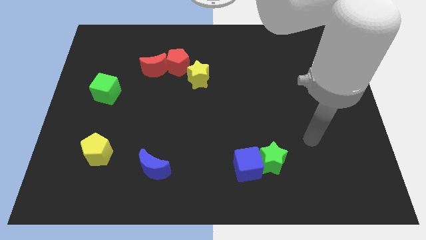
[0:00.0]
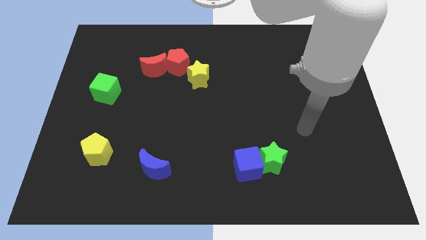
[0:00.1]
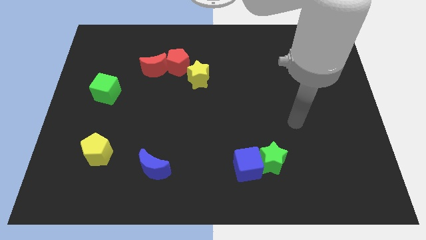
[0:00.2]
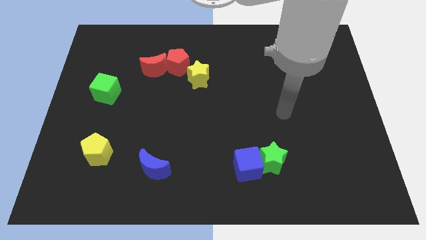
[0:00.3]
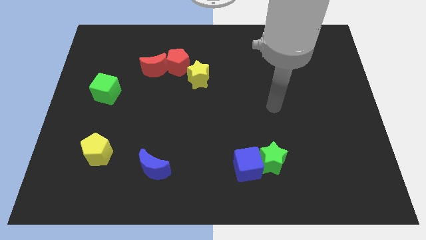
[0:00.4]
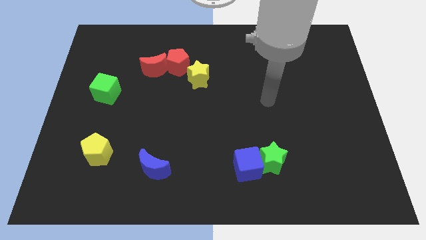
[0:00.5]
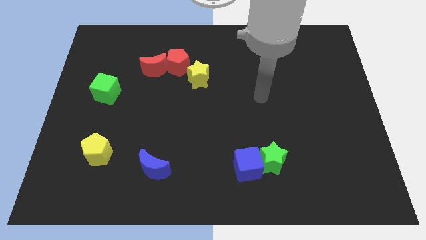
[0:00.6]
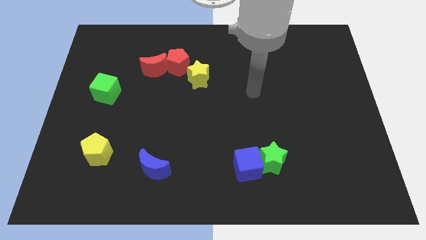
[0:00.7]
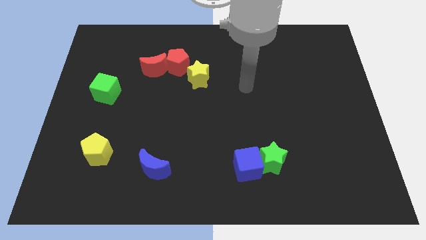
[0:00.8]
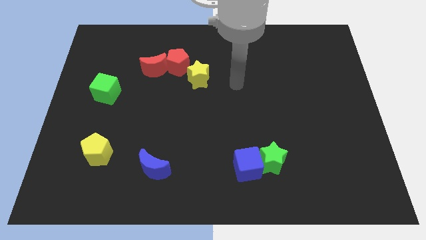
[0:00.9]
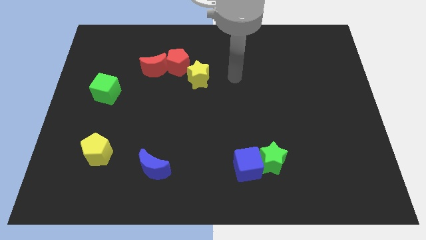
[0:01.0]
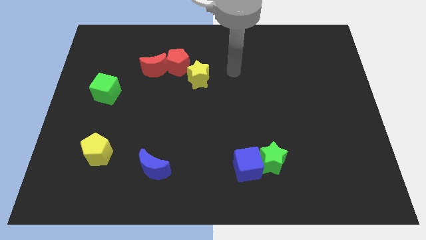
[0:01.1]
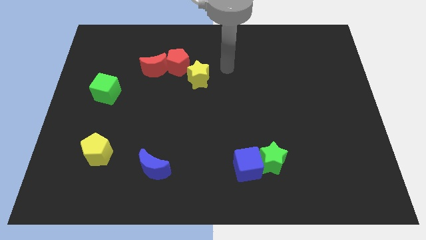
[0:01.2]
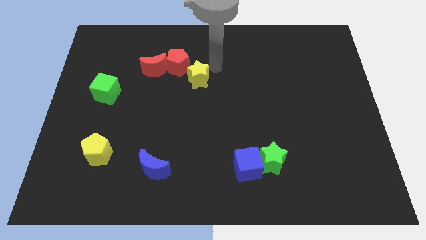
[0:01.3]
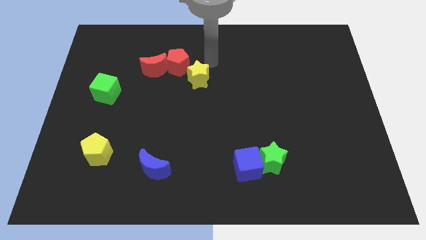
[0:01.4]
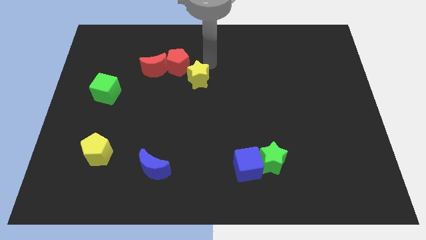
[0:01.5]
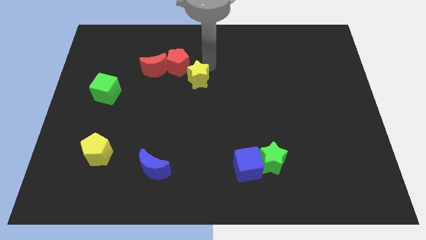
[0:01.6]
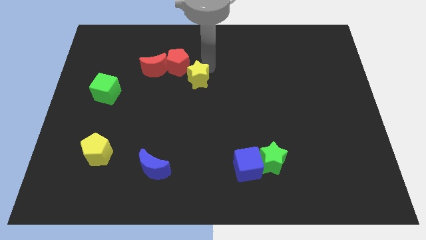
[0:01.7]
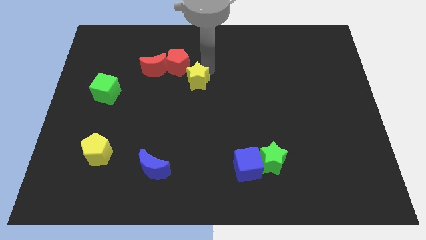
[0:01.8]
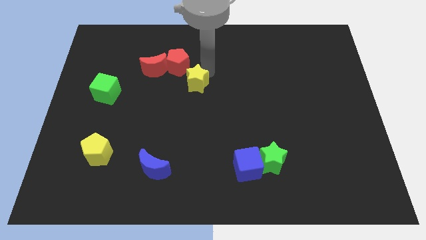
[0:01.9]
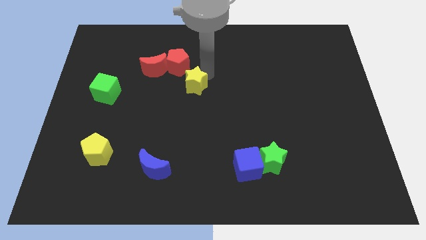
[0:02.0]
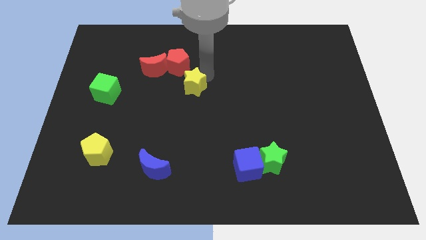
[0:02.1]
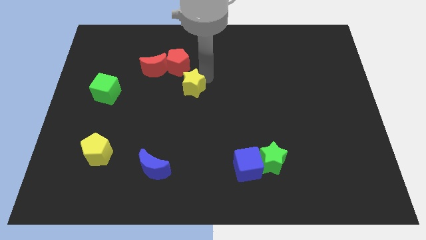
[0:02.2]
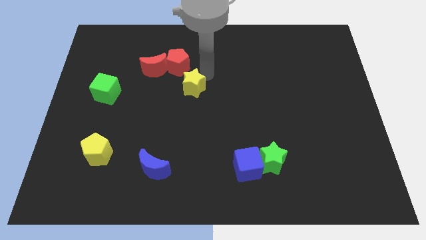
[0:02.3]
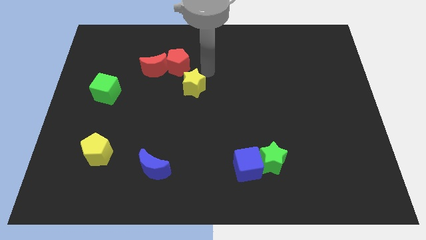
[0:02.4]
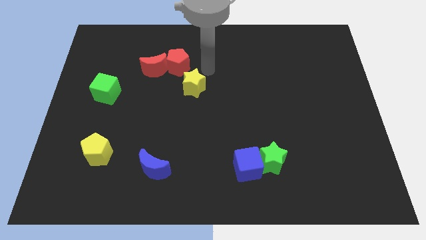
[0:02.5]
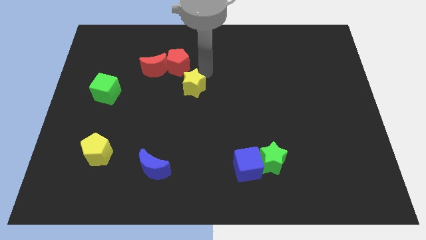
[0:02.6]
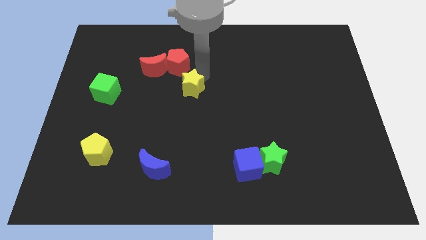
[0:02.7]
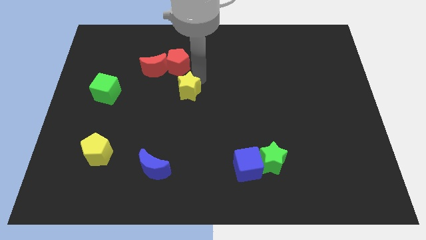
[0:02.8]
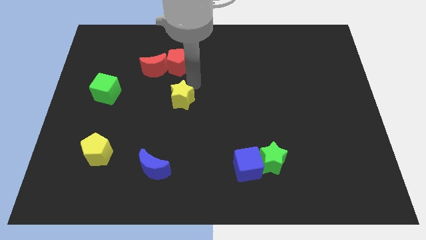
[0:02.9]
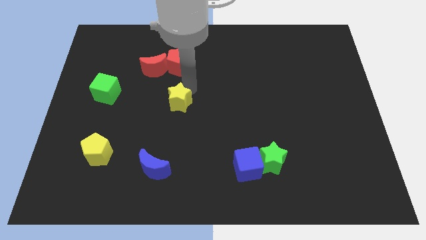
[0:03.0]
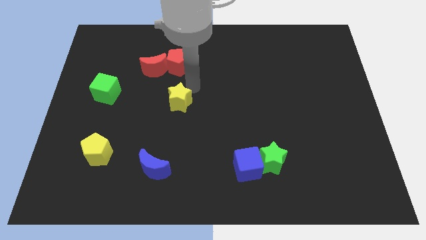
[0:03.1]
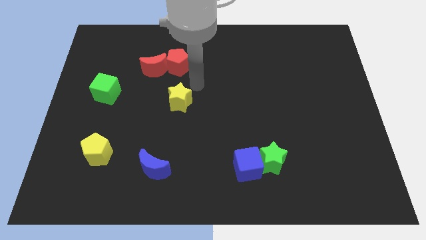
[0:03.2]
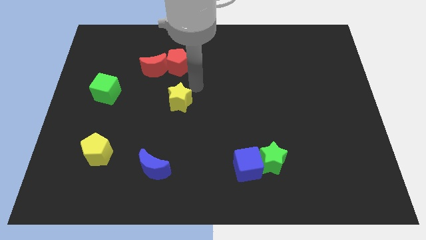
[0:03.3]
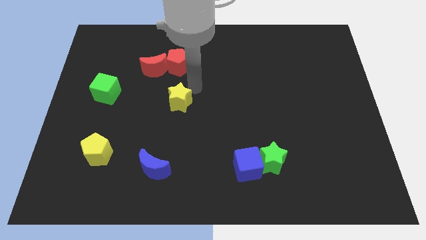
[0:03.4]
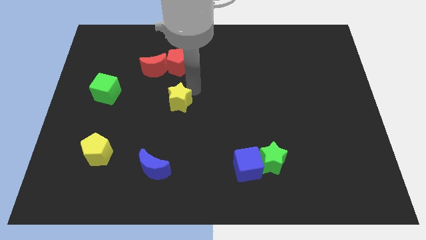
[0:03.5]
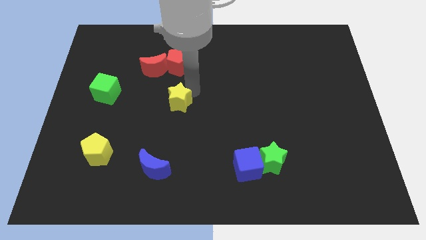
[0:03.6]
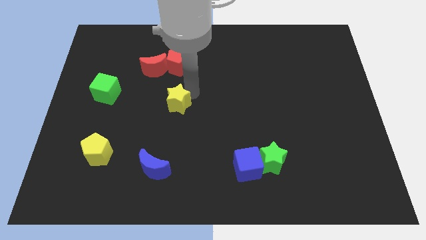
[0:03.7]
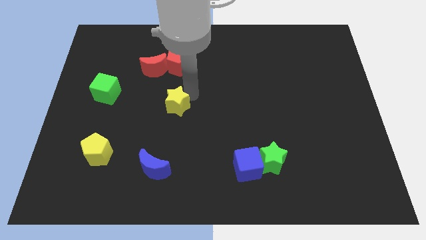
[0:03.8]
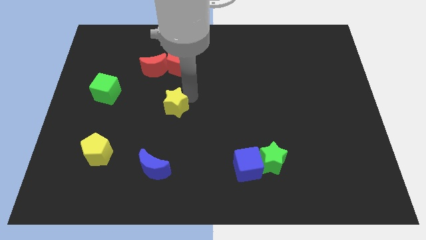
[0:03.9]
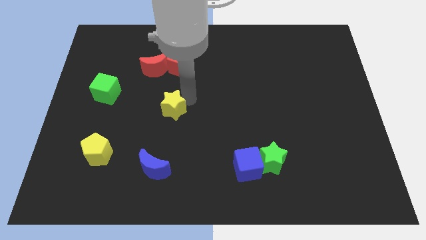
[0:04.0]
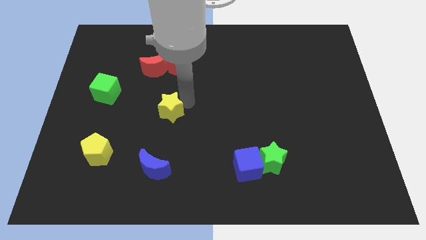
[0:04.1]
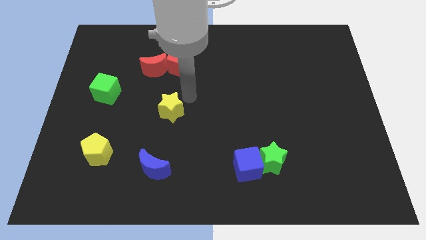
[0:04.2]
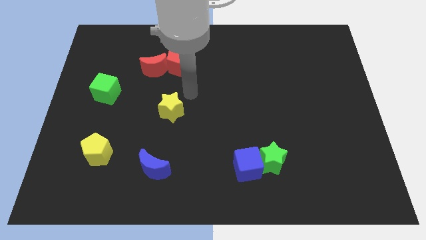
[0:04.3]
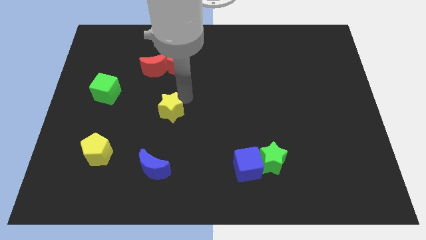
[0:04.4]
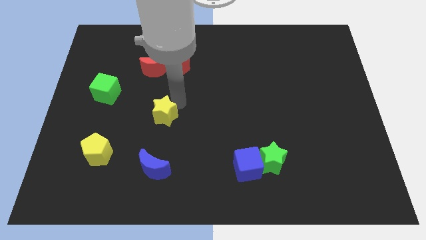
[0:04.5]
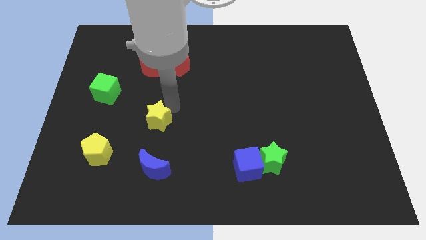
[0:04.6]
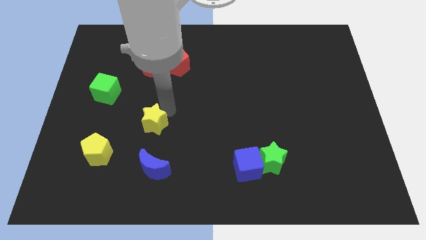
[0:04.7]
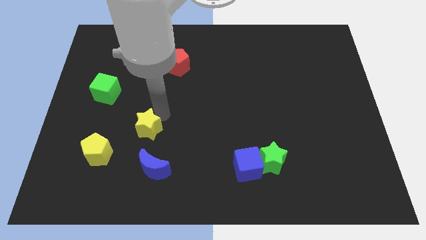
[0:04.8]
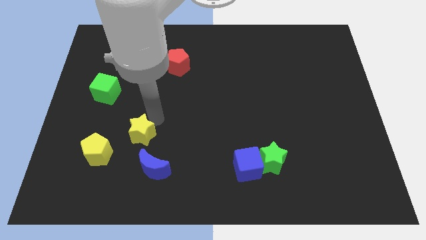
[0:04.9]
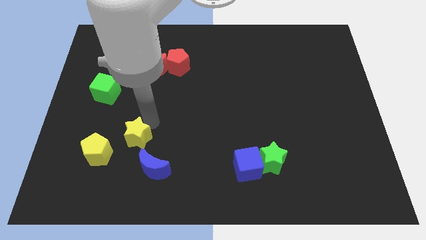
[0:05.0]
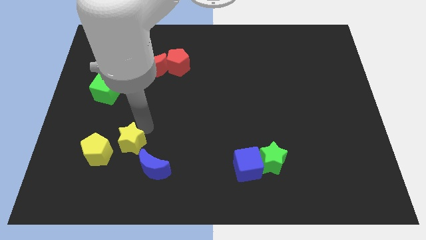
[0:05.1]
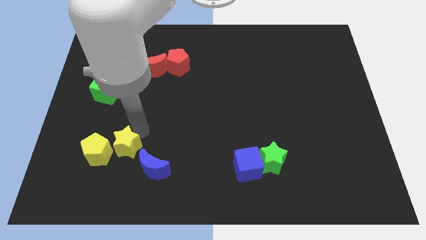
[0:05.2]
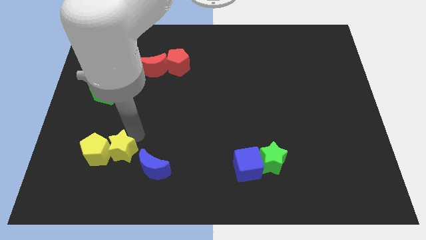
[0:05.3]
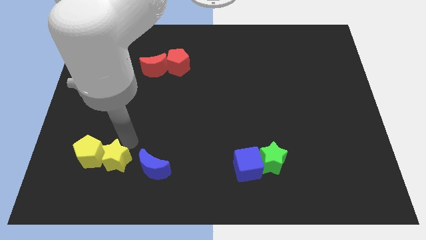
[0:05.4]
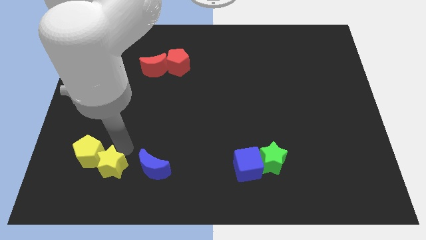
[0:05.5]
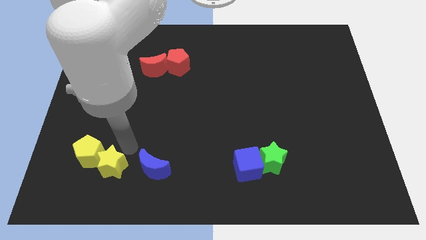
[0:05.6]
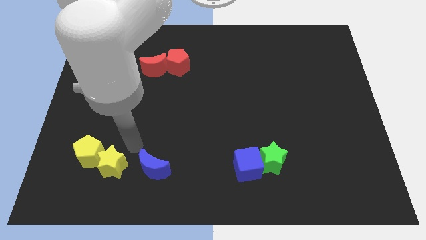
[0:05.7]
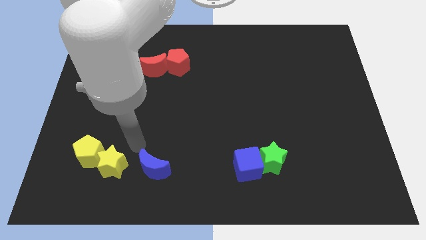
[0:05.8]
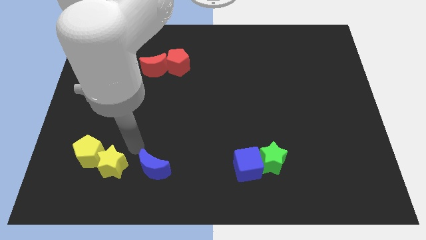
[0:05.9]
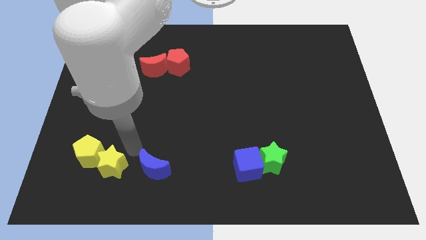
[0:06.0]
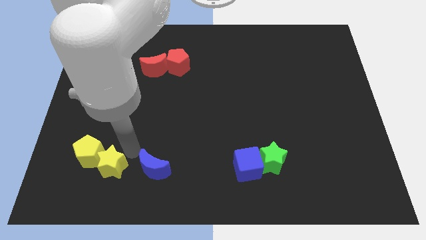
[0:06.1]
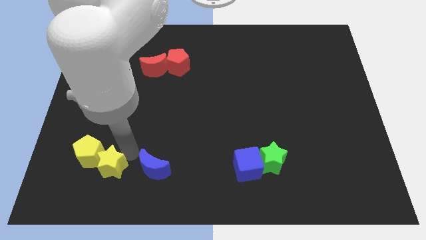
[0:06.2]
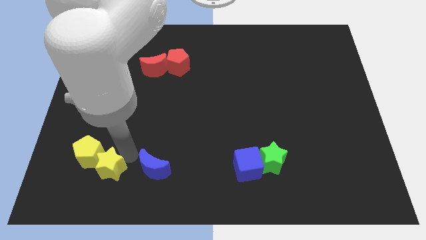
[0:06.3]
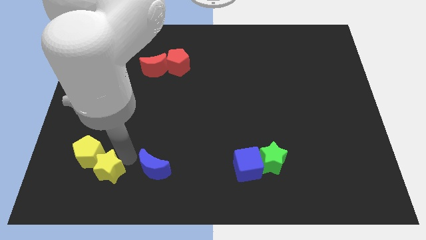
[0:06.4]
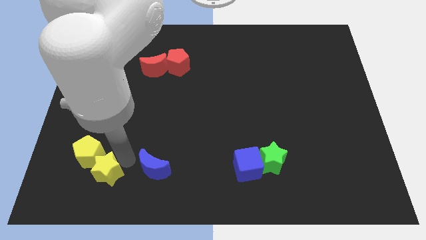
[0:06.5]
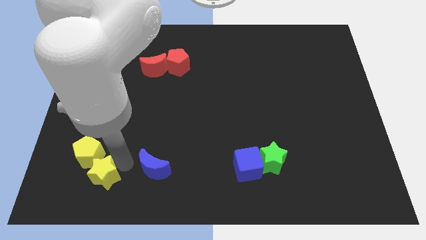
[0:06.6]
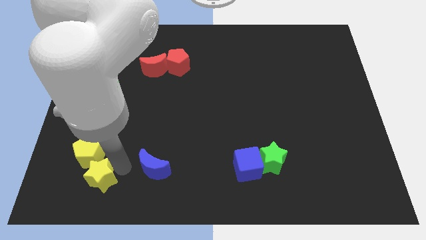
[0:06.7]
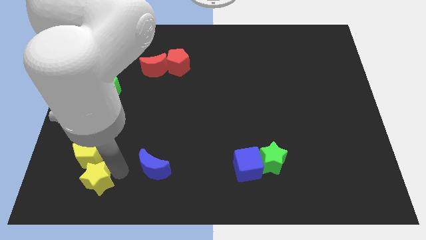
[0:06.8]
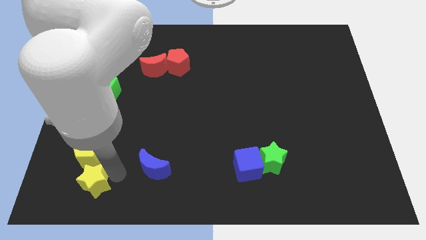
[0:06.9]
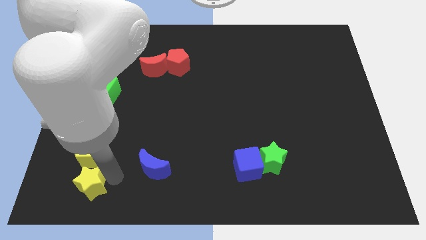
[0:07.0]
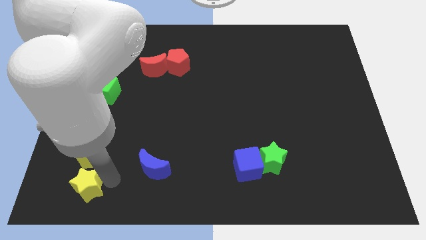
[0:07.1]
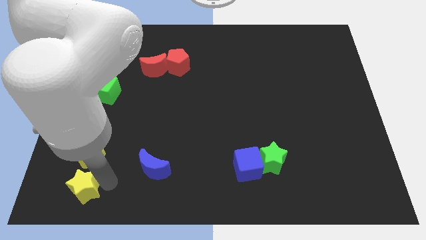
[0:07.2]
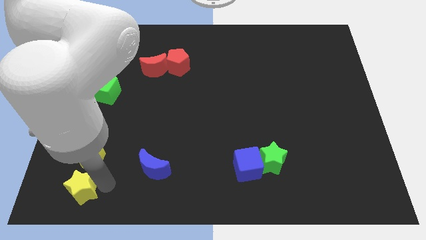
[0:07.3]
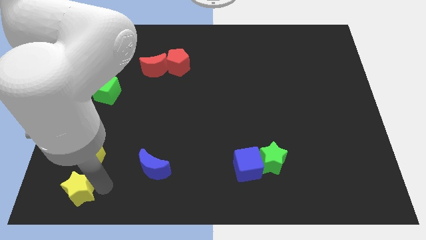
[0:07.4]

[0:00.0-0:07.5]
move the yellow star to the bottom left corner
